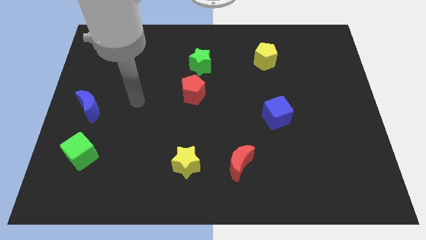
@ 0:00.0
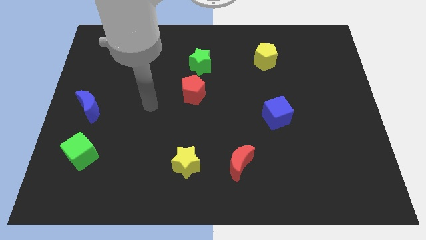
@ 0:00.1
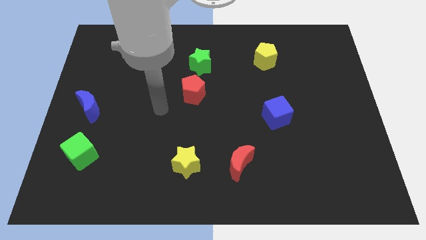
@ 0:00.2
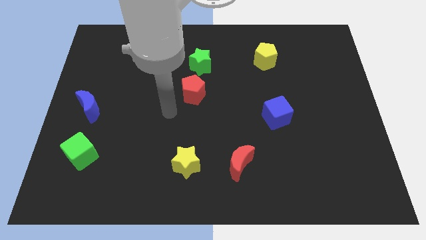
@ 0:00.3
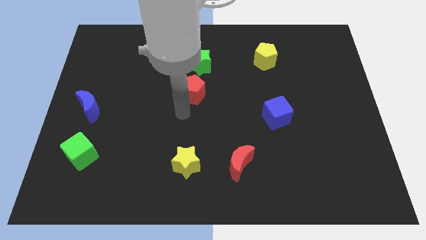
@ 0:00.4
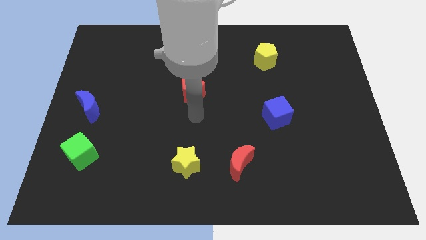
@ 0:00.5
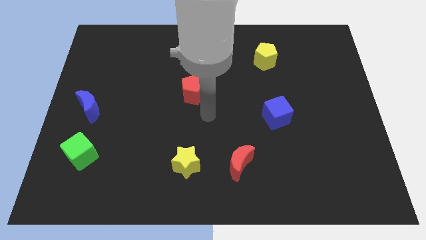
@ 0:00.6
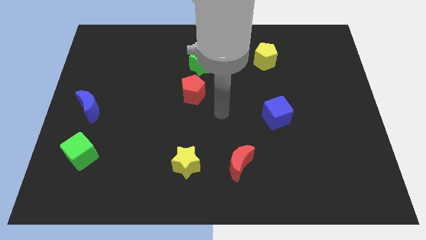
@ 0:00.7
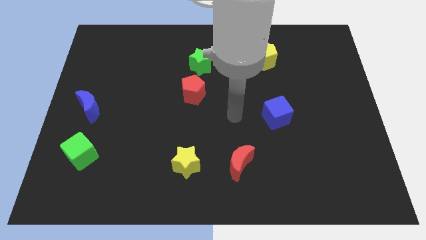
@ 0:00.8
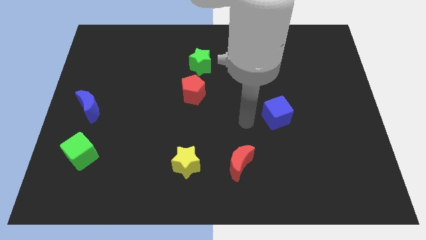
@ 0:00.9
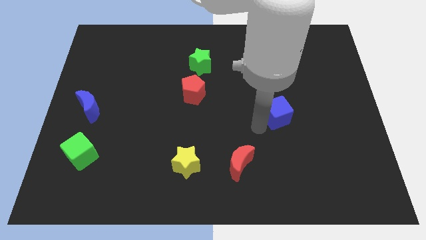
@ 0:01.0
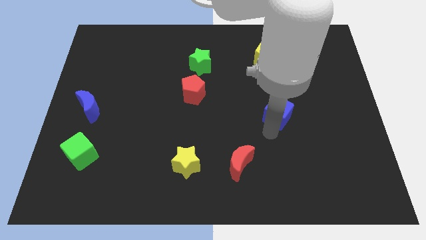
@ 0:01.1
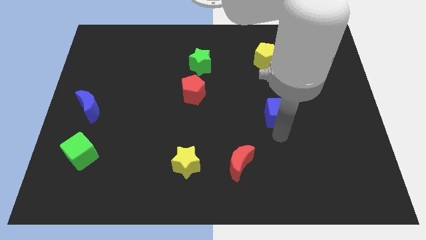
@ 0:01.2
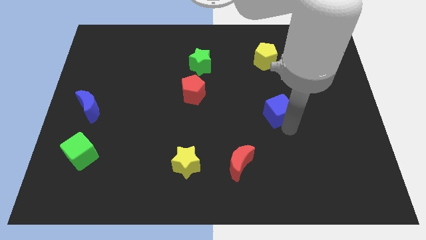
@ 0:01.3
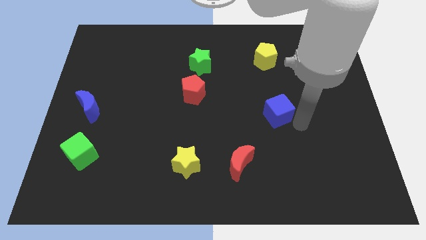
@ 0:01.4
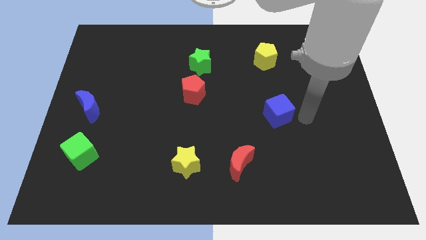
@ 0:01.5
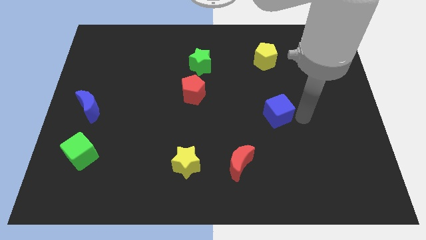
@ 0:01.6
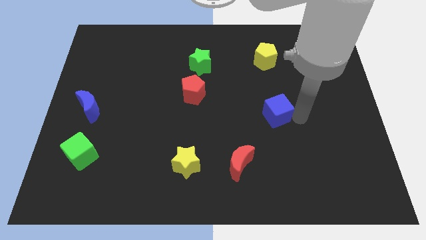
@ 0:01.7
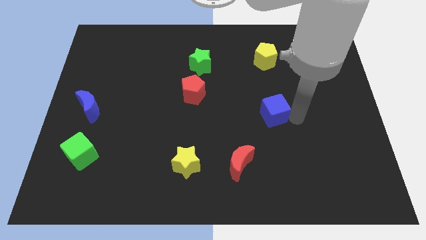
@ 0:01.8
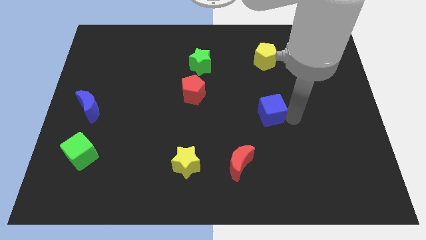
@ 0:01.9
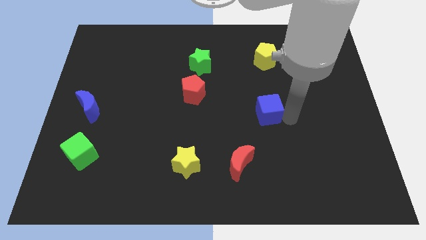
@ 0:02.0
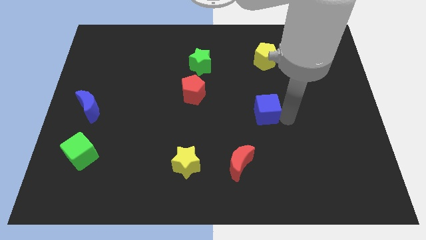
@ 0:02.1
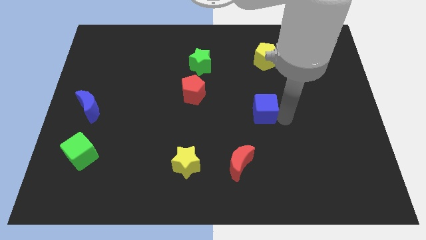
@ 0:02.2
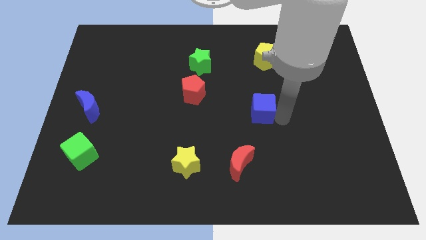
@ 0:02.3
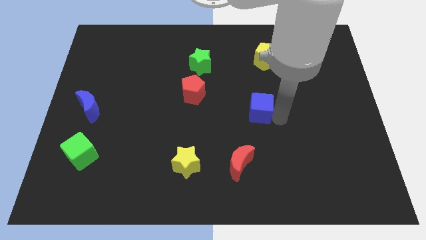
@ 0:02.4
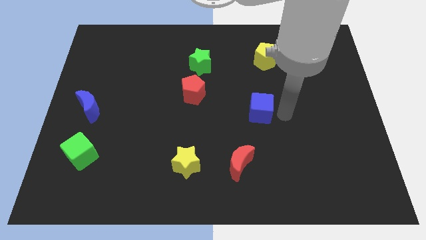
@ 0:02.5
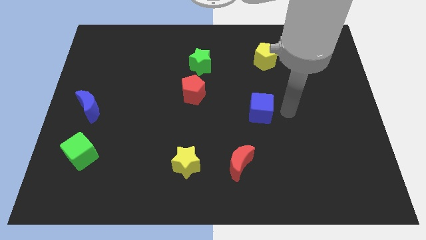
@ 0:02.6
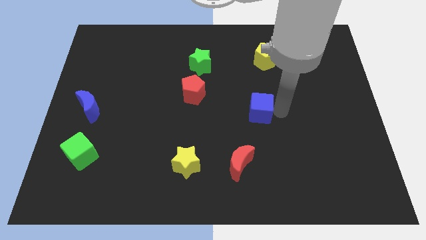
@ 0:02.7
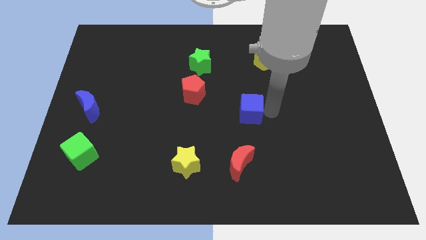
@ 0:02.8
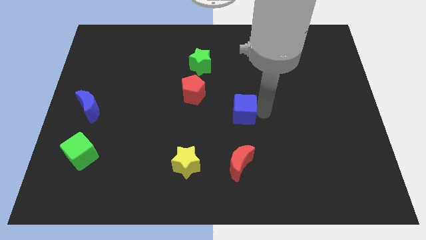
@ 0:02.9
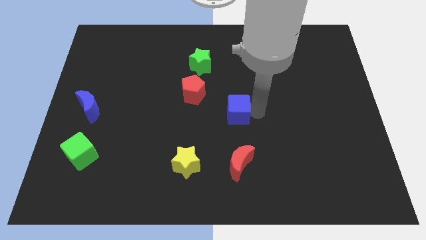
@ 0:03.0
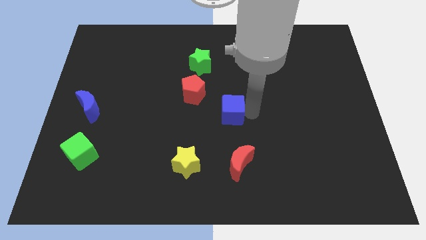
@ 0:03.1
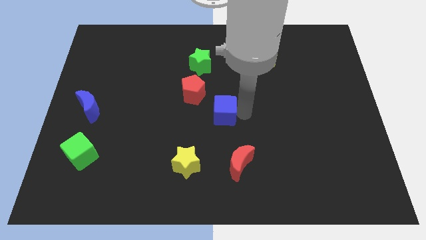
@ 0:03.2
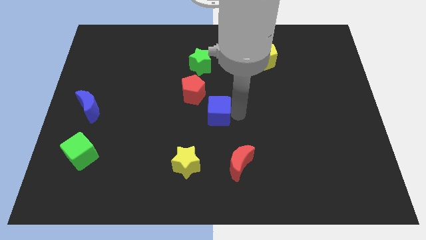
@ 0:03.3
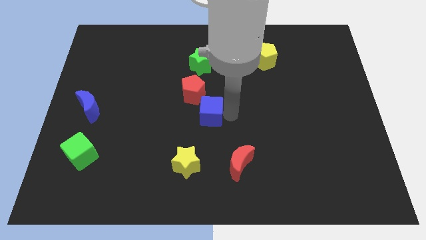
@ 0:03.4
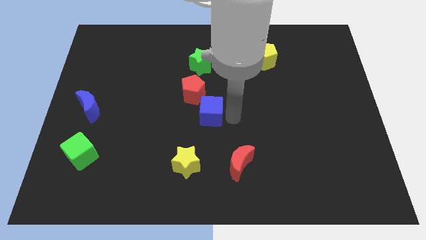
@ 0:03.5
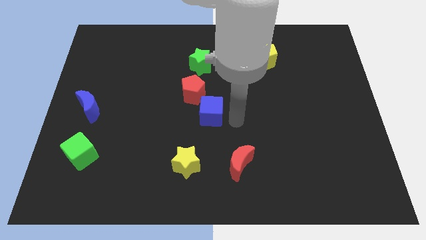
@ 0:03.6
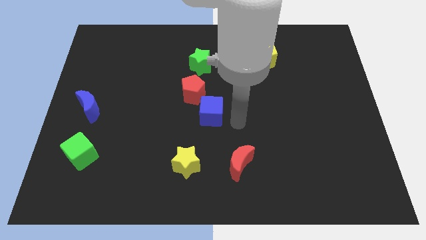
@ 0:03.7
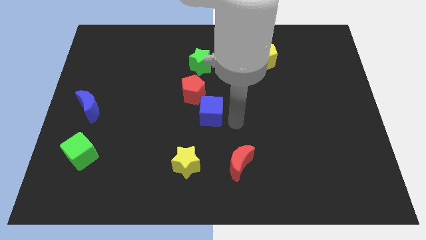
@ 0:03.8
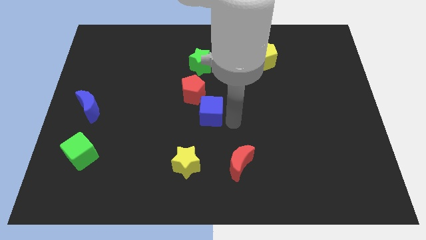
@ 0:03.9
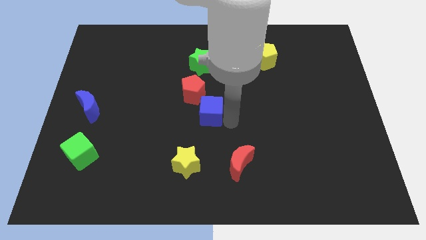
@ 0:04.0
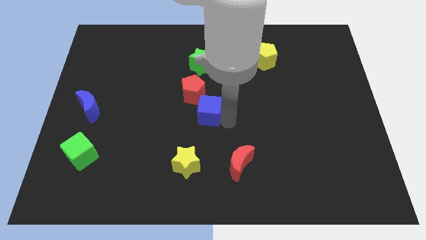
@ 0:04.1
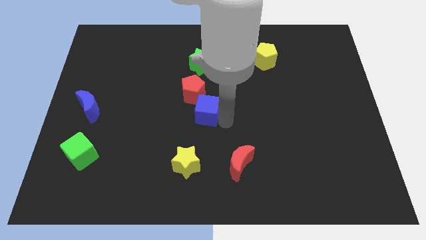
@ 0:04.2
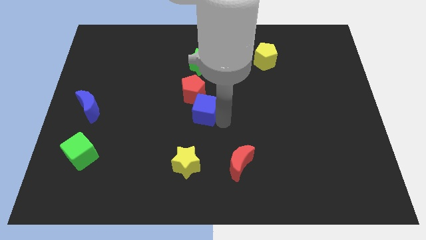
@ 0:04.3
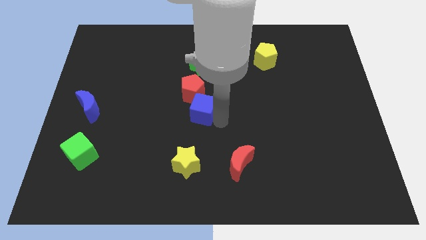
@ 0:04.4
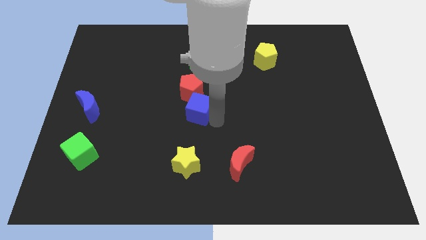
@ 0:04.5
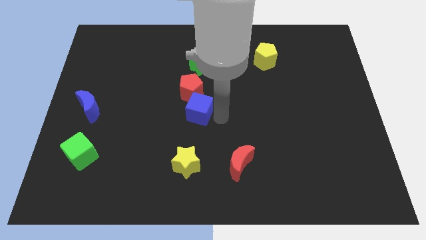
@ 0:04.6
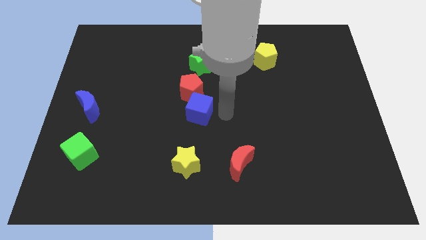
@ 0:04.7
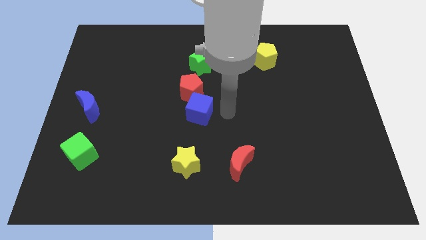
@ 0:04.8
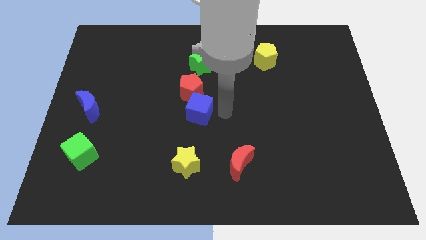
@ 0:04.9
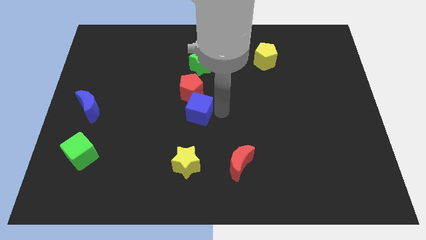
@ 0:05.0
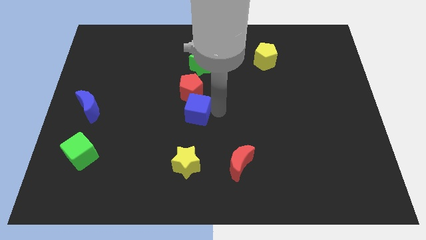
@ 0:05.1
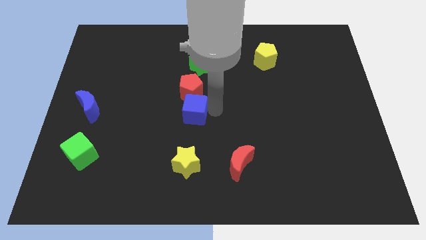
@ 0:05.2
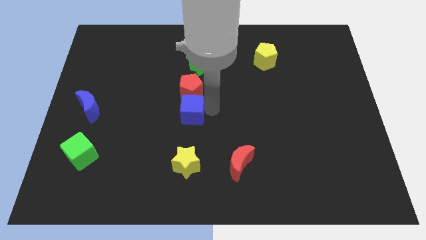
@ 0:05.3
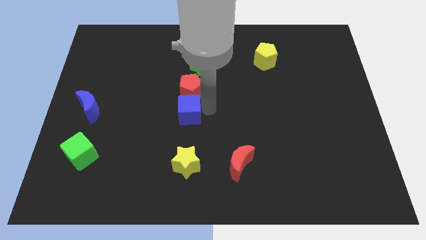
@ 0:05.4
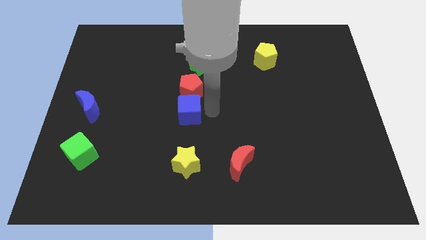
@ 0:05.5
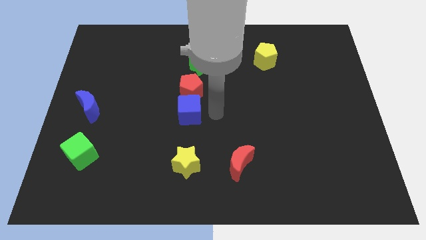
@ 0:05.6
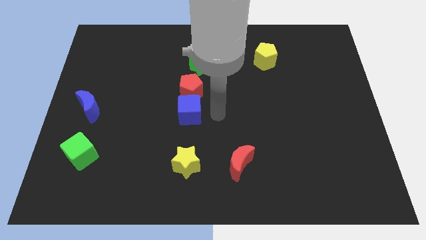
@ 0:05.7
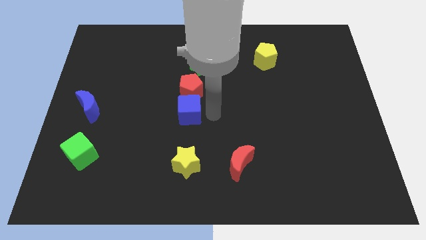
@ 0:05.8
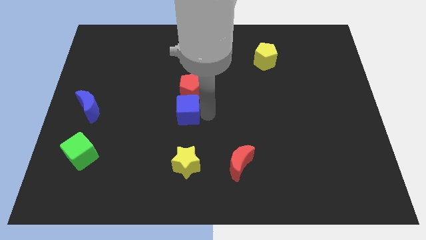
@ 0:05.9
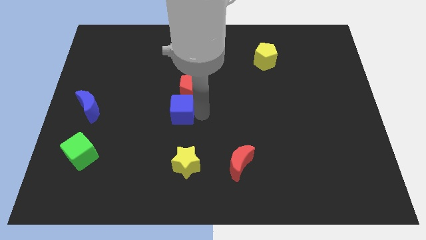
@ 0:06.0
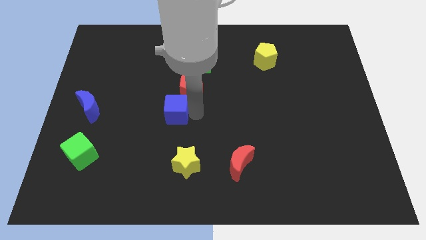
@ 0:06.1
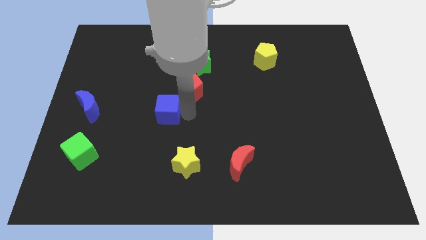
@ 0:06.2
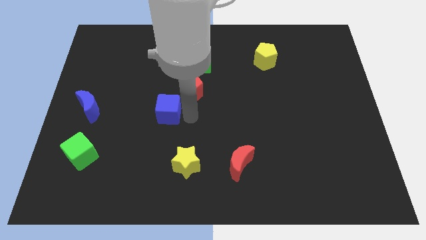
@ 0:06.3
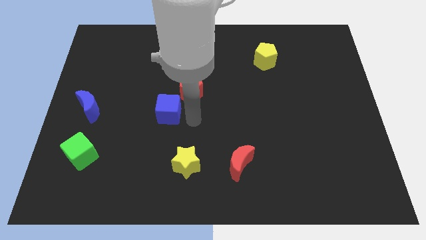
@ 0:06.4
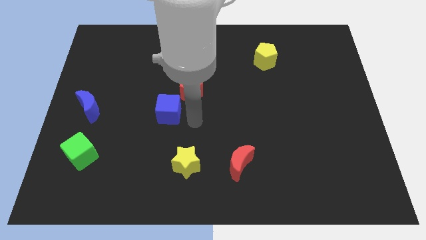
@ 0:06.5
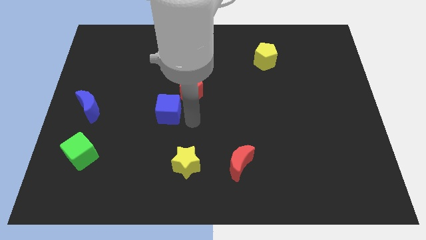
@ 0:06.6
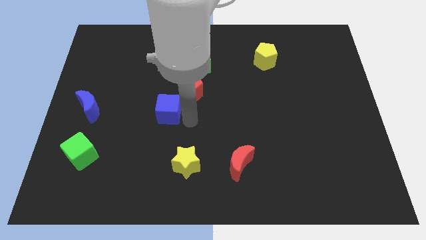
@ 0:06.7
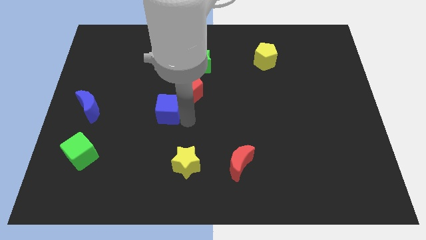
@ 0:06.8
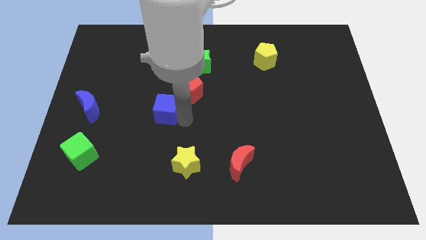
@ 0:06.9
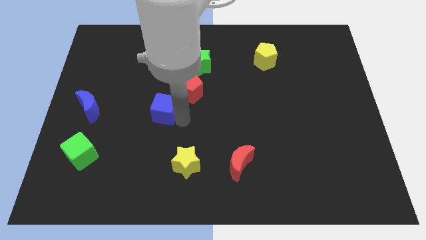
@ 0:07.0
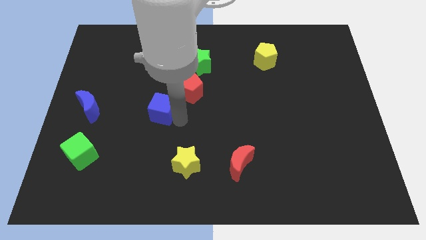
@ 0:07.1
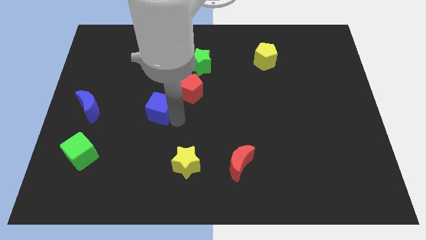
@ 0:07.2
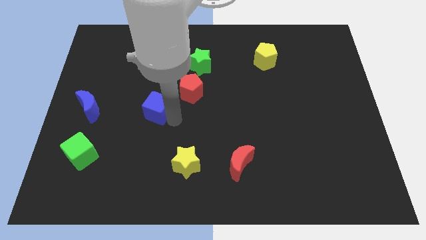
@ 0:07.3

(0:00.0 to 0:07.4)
move the blue cube to the right of the blue moon

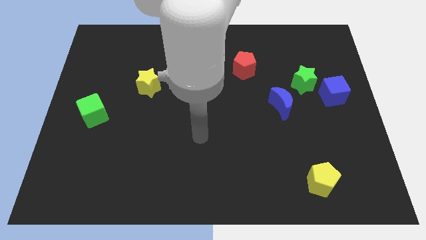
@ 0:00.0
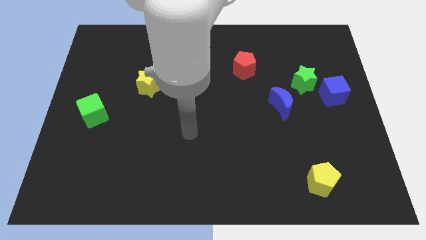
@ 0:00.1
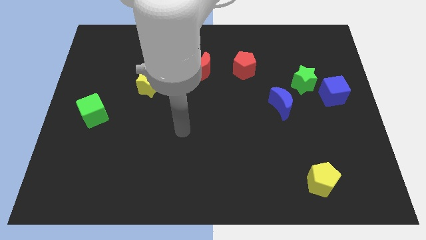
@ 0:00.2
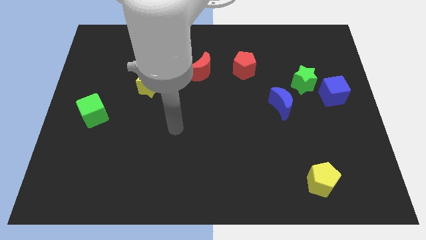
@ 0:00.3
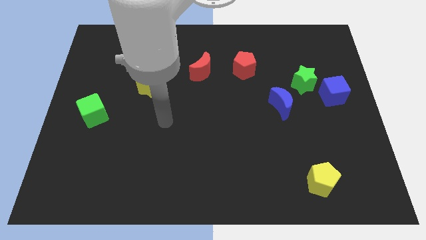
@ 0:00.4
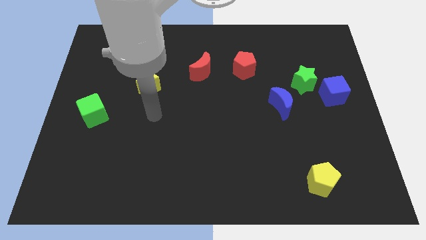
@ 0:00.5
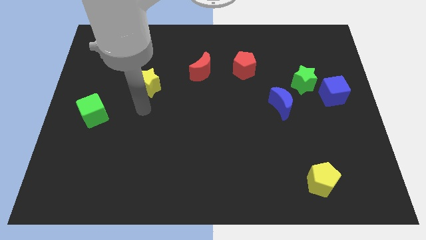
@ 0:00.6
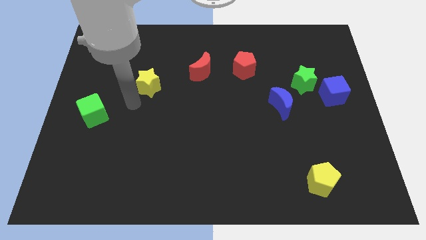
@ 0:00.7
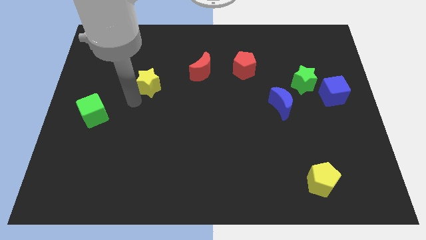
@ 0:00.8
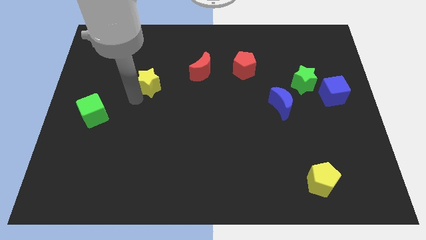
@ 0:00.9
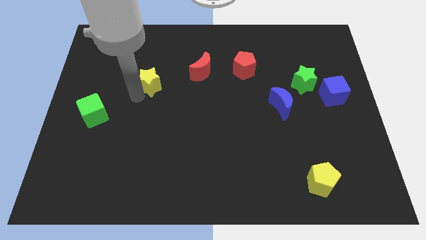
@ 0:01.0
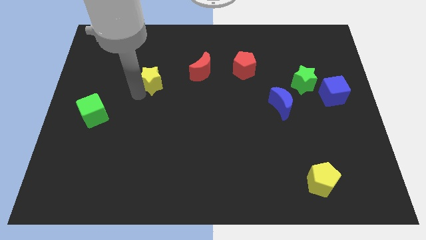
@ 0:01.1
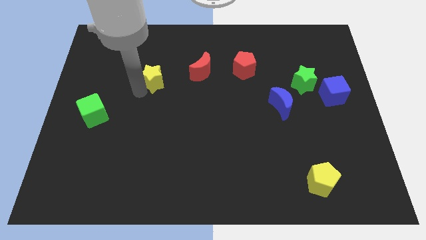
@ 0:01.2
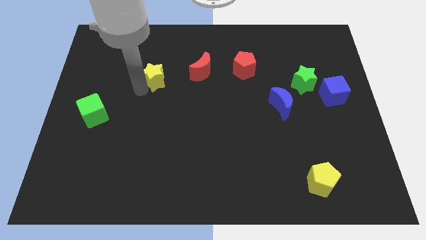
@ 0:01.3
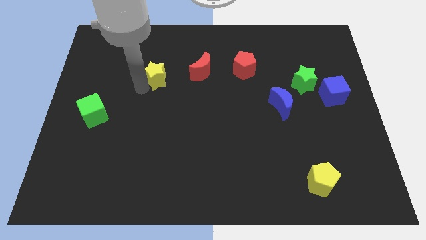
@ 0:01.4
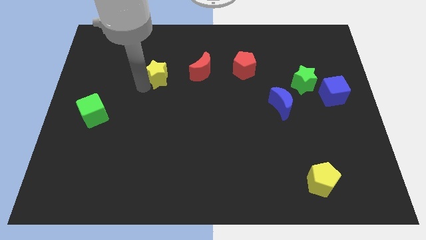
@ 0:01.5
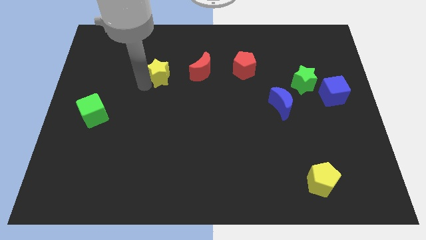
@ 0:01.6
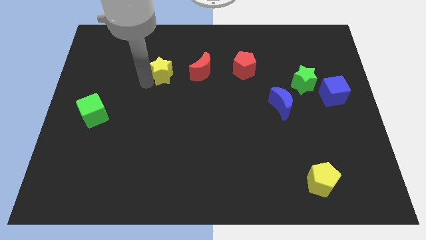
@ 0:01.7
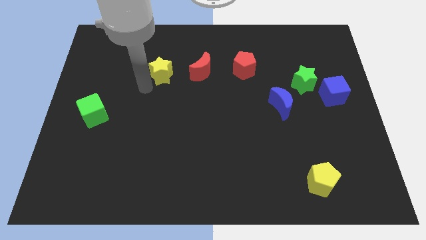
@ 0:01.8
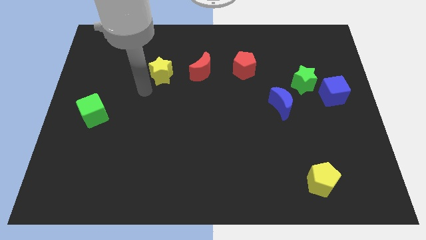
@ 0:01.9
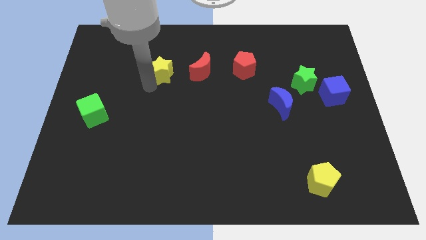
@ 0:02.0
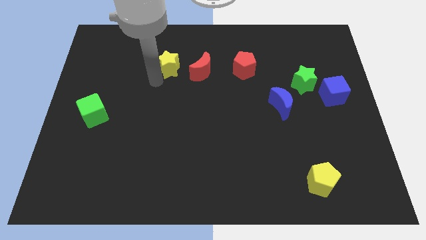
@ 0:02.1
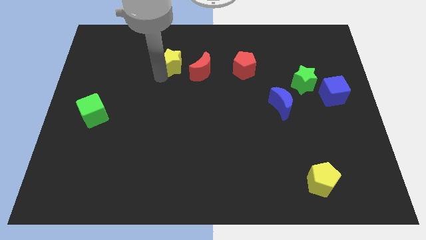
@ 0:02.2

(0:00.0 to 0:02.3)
slide the yellow star to the top left side of the red moon
